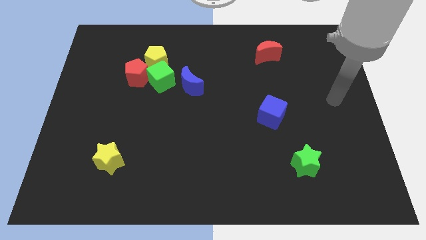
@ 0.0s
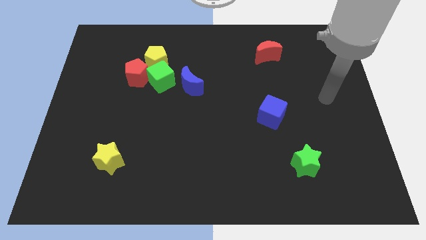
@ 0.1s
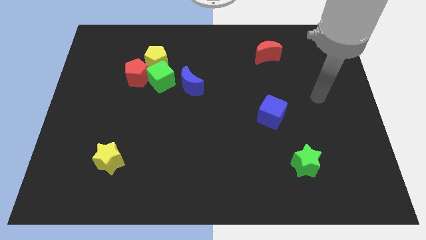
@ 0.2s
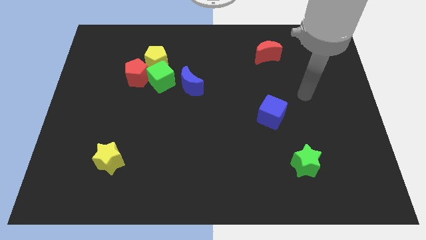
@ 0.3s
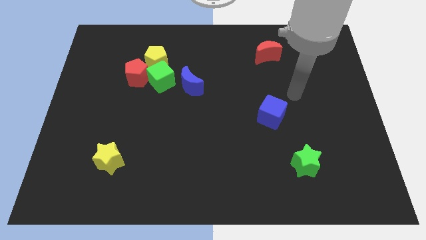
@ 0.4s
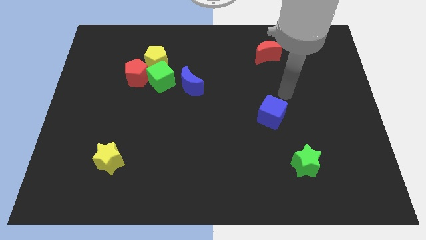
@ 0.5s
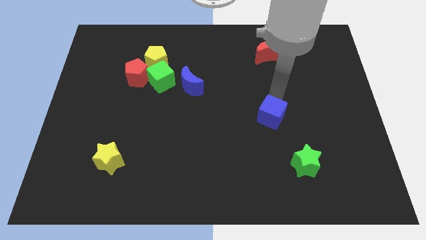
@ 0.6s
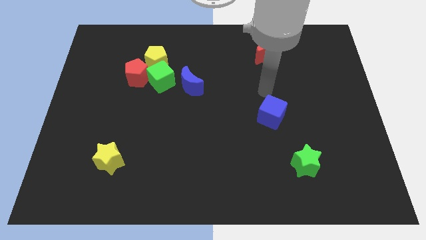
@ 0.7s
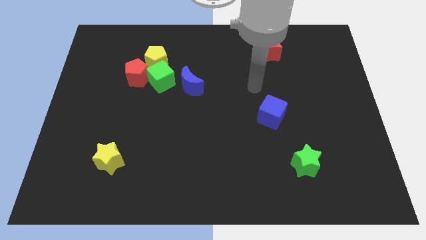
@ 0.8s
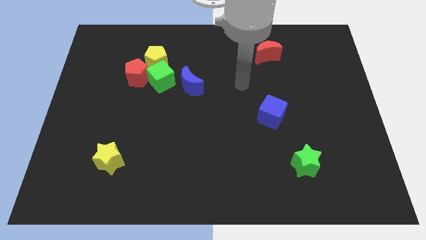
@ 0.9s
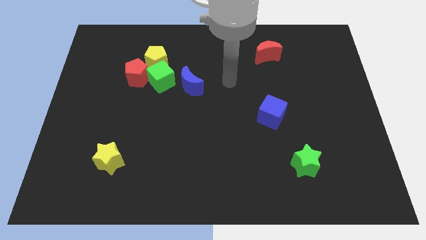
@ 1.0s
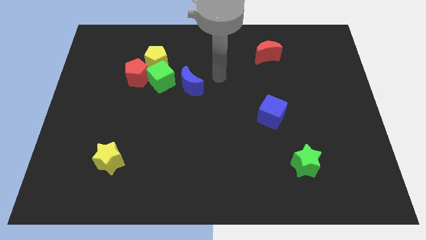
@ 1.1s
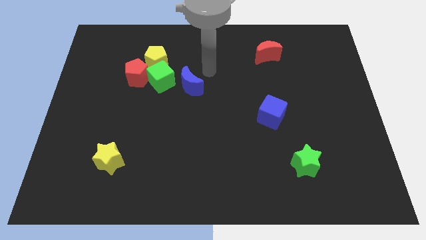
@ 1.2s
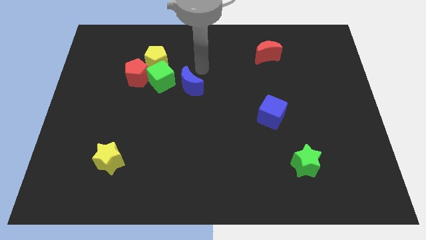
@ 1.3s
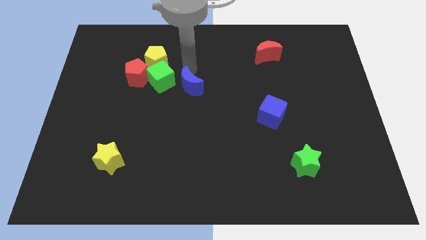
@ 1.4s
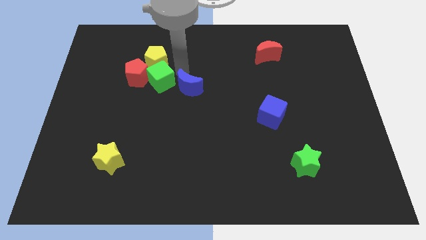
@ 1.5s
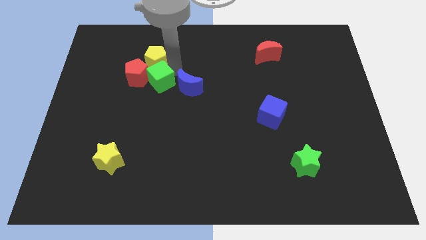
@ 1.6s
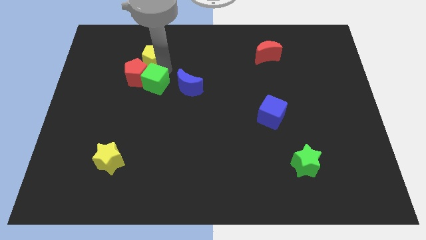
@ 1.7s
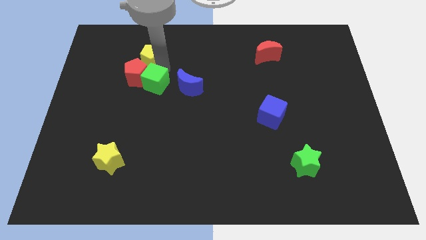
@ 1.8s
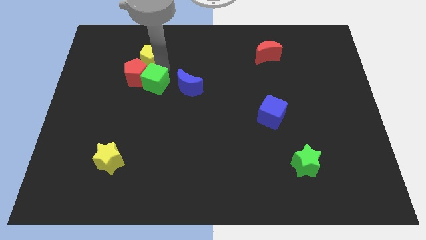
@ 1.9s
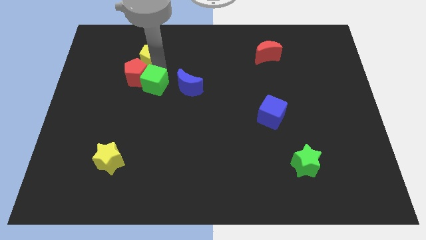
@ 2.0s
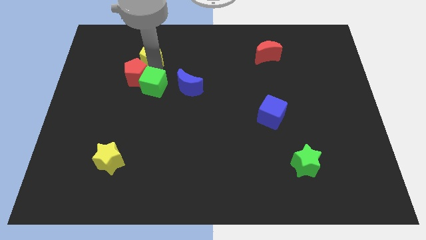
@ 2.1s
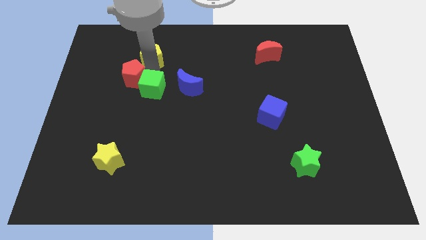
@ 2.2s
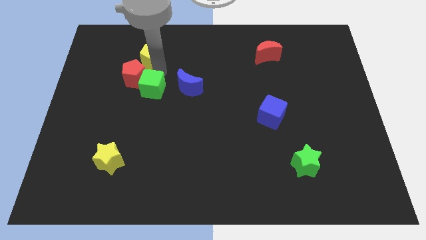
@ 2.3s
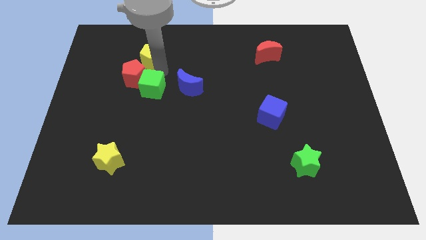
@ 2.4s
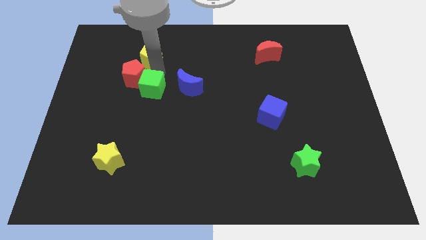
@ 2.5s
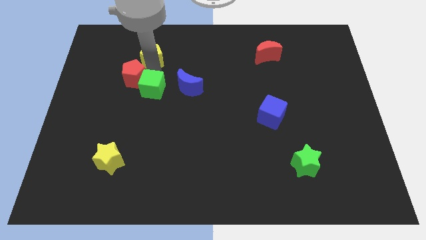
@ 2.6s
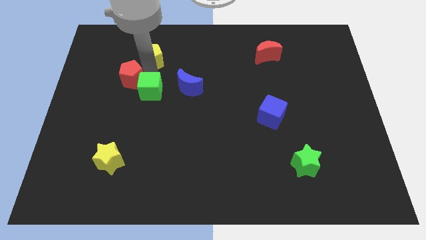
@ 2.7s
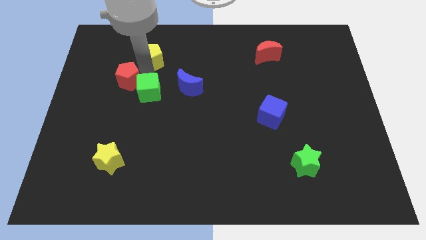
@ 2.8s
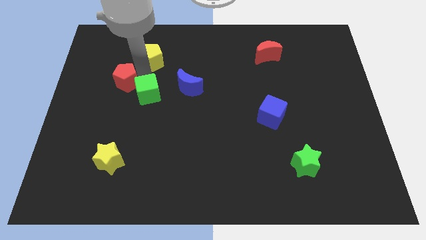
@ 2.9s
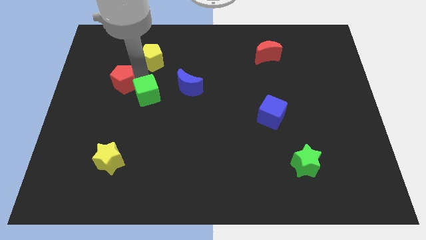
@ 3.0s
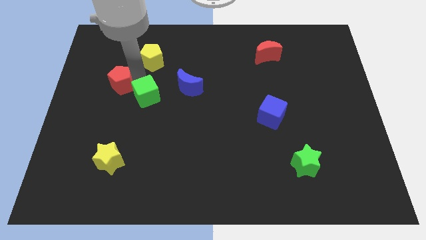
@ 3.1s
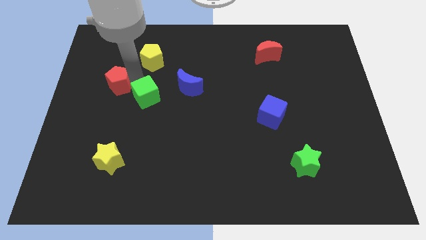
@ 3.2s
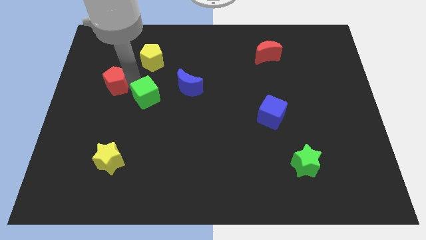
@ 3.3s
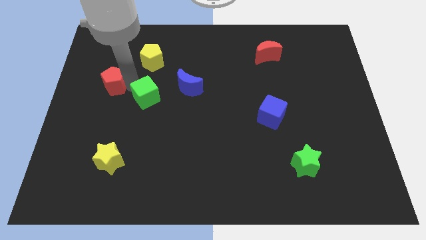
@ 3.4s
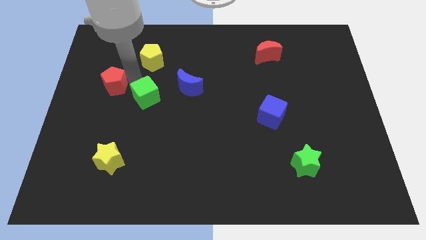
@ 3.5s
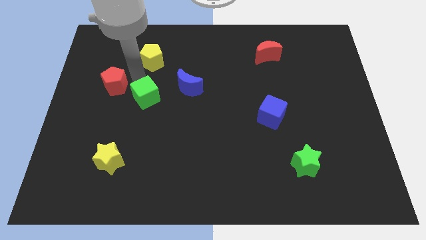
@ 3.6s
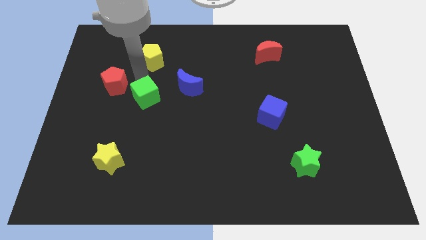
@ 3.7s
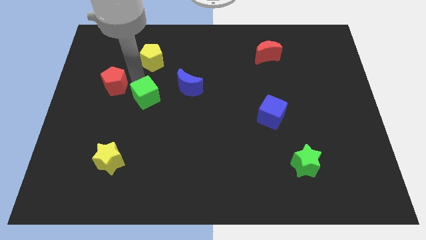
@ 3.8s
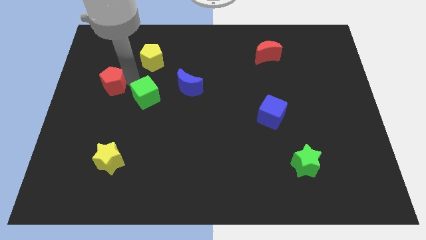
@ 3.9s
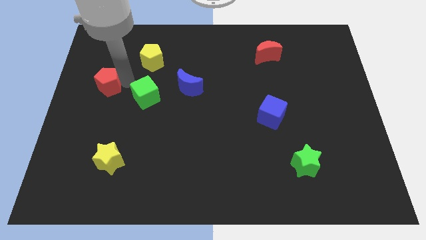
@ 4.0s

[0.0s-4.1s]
move the red pentagon away from the green cube and yellow pentagon

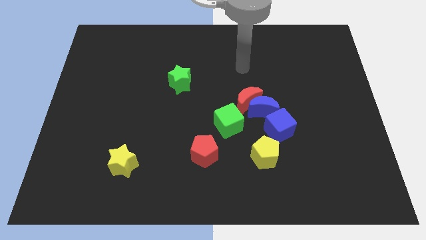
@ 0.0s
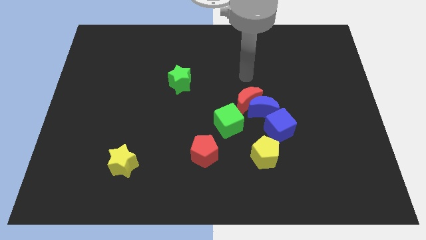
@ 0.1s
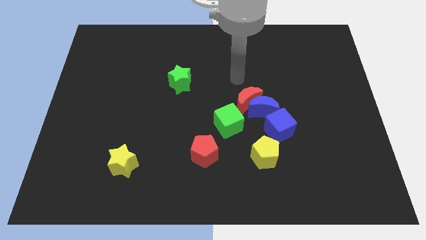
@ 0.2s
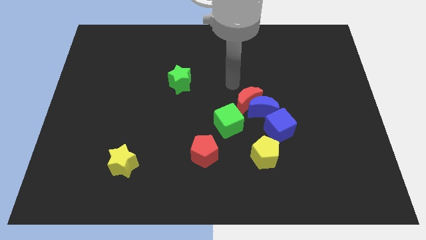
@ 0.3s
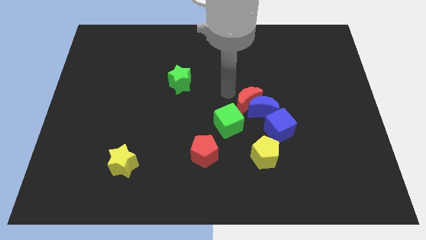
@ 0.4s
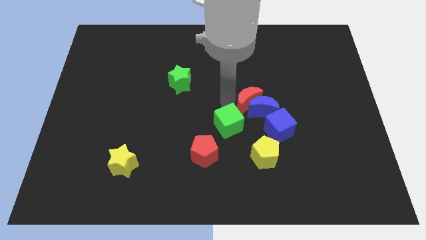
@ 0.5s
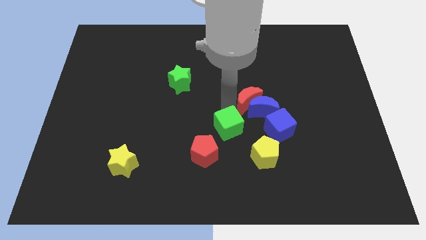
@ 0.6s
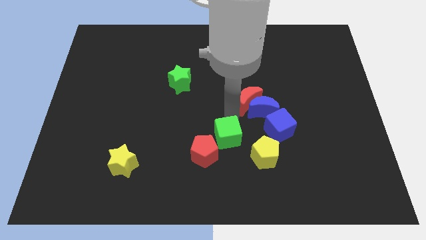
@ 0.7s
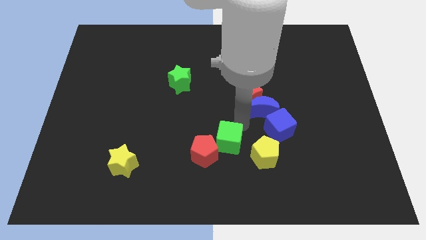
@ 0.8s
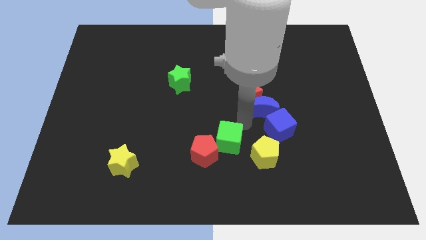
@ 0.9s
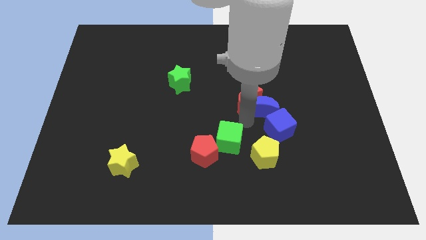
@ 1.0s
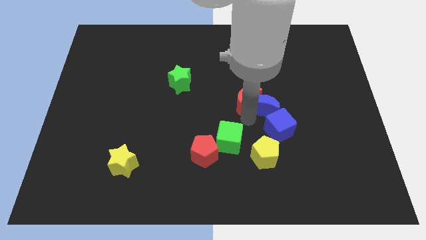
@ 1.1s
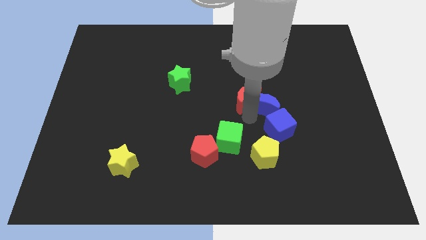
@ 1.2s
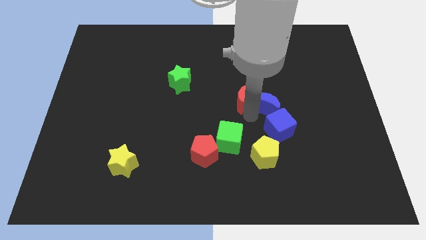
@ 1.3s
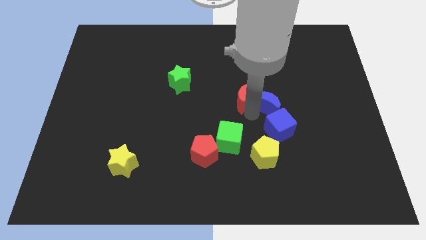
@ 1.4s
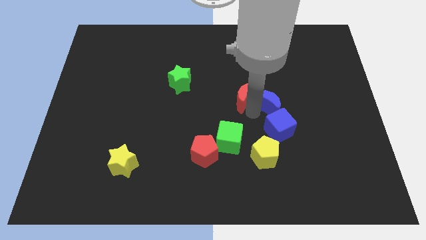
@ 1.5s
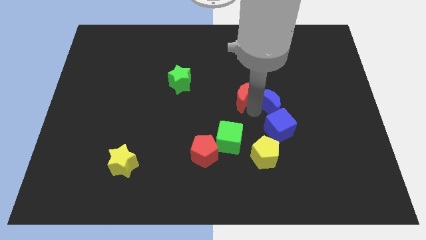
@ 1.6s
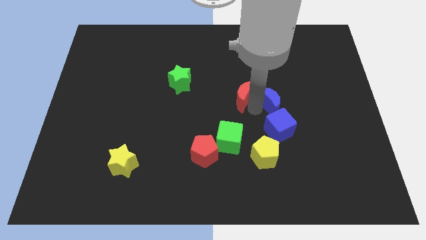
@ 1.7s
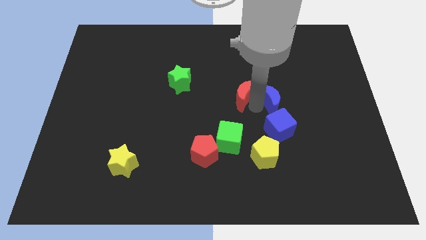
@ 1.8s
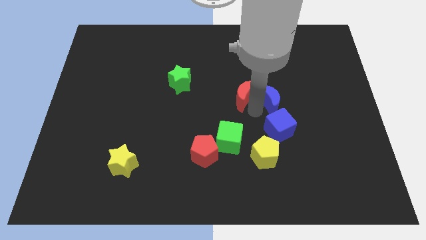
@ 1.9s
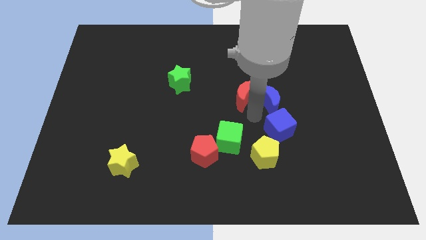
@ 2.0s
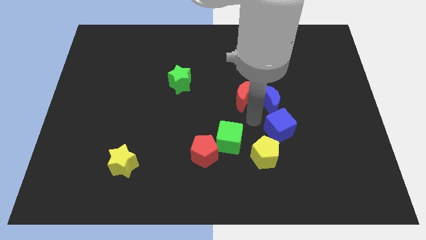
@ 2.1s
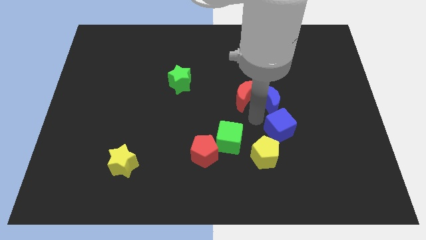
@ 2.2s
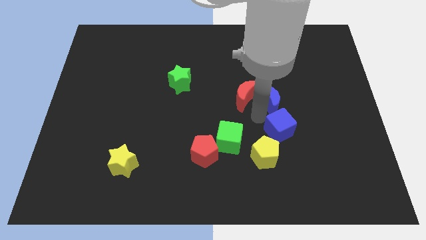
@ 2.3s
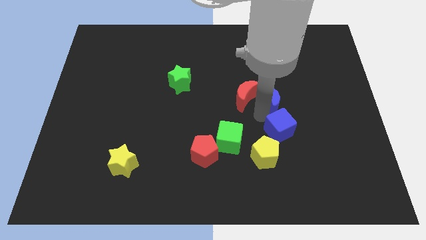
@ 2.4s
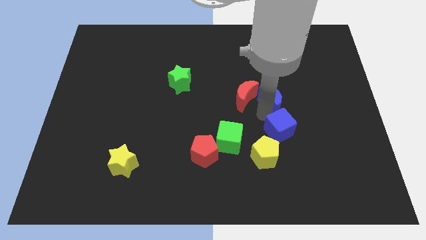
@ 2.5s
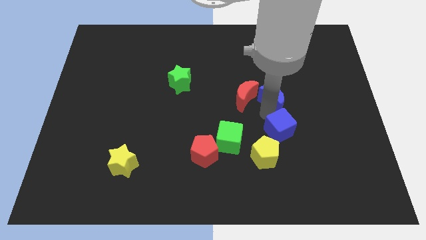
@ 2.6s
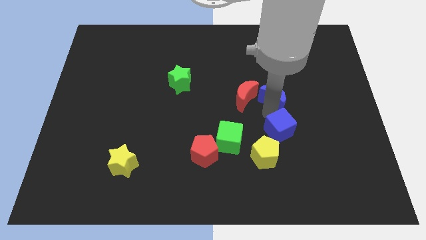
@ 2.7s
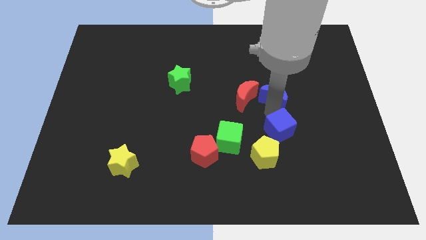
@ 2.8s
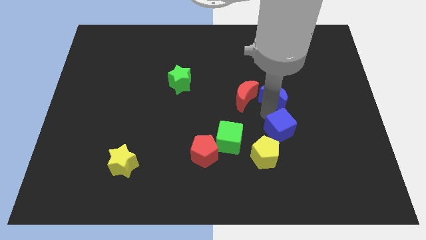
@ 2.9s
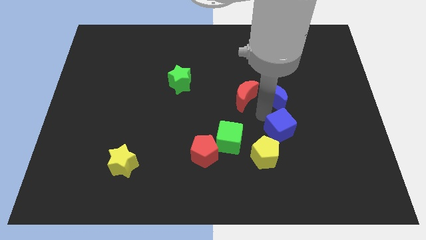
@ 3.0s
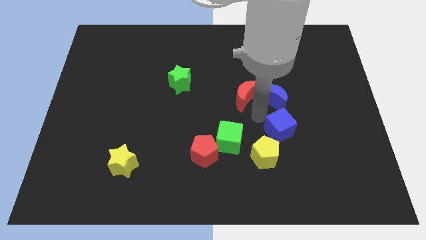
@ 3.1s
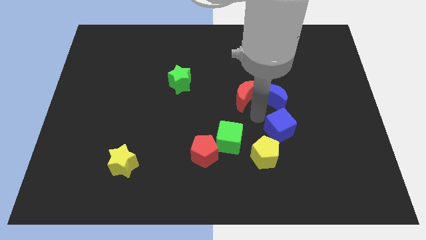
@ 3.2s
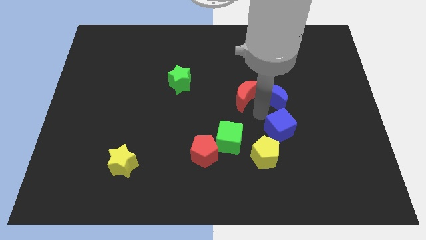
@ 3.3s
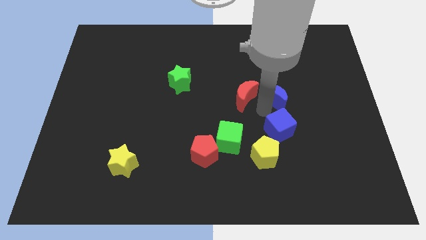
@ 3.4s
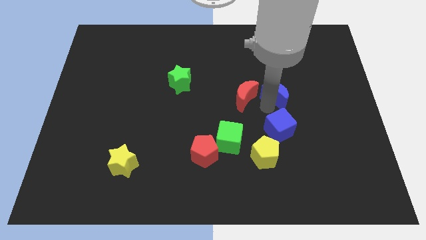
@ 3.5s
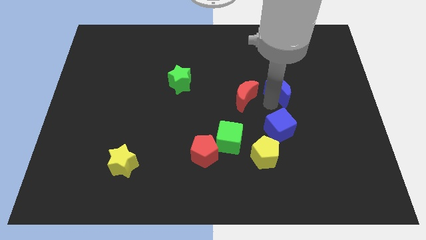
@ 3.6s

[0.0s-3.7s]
pull the blue moon apart from the clump

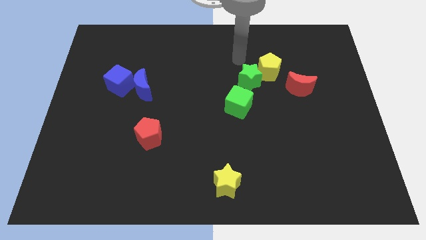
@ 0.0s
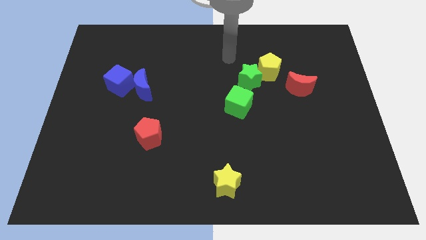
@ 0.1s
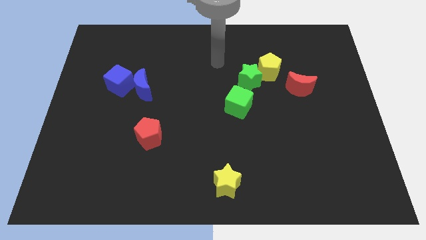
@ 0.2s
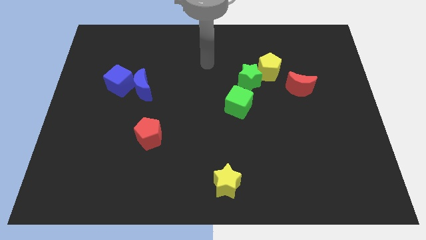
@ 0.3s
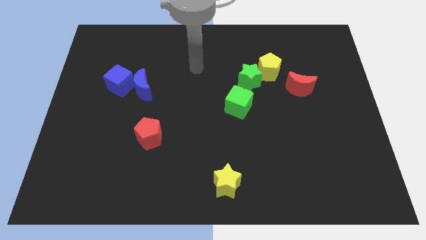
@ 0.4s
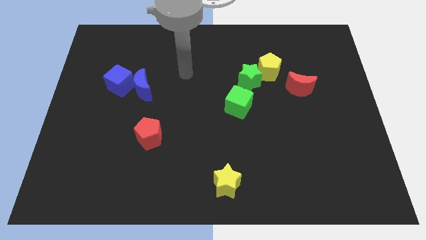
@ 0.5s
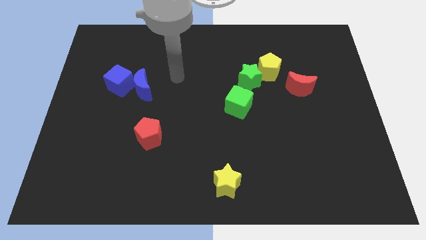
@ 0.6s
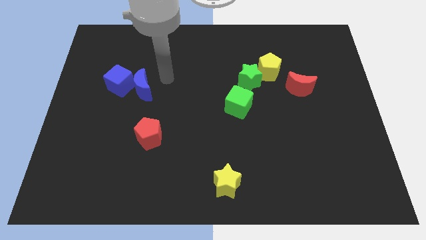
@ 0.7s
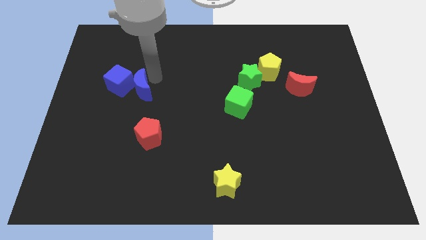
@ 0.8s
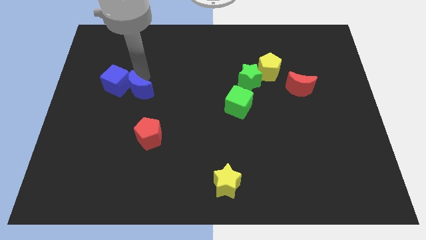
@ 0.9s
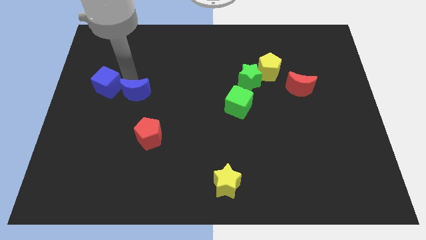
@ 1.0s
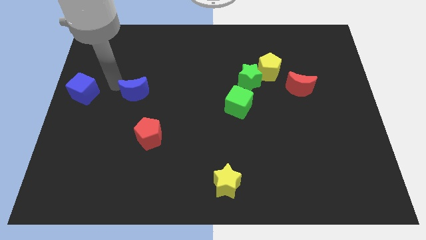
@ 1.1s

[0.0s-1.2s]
pull the blue moon apart from the blue cube

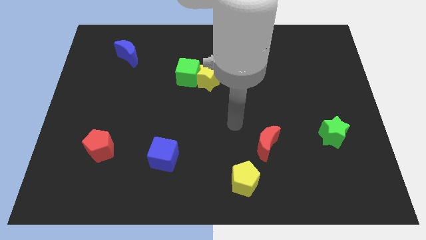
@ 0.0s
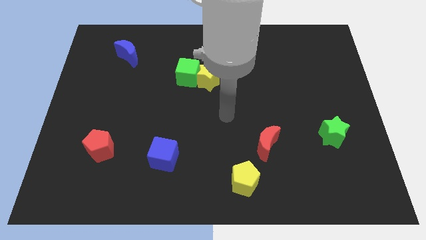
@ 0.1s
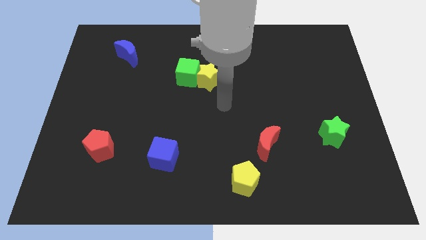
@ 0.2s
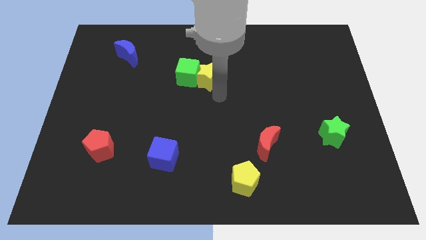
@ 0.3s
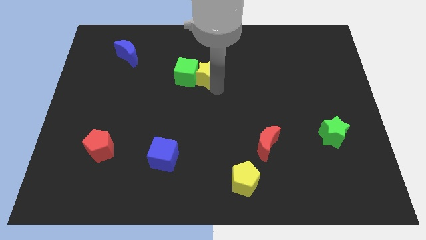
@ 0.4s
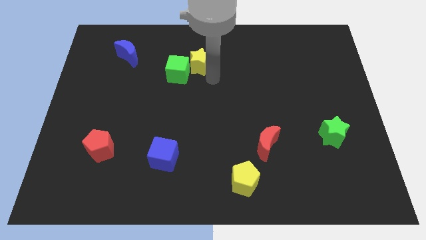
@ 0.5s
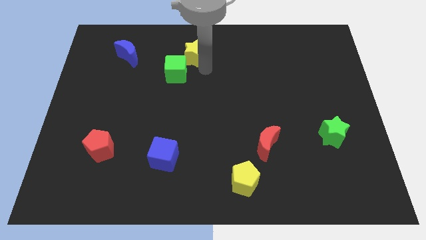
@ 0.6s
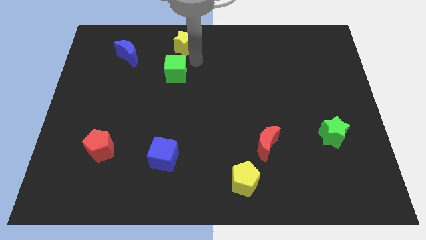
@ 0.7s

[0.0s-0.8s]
move the green cube away from the yellow star
